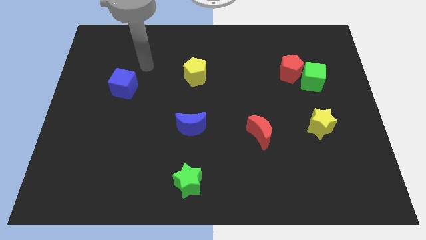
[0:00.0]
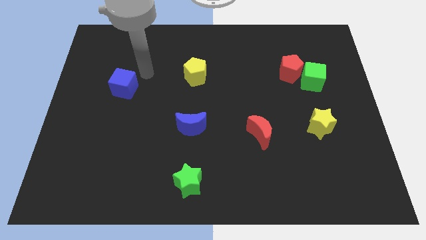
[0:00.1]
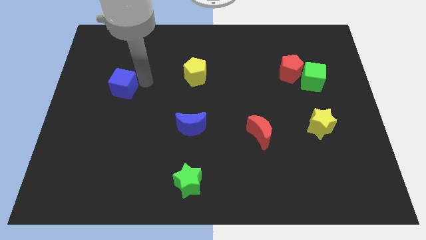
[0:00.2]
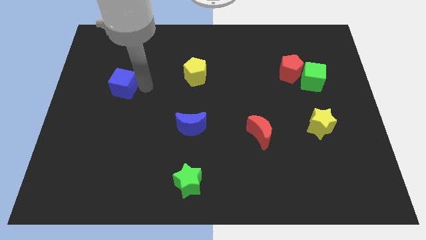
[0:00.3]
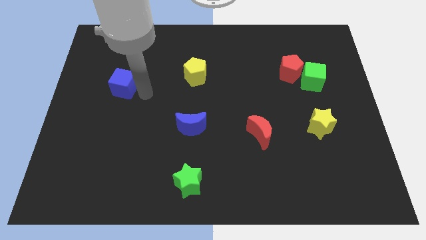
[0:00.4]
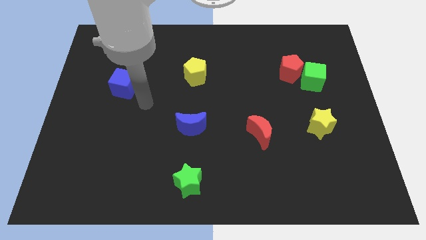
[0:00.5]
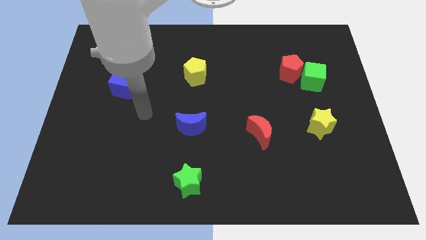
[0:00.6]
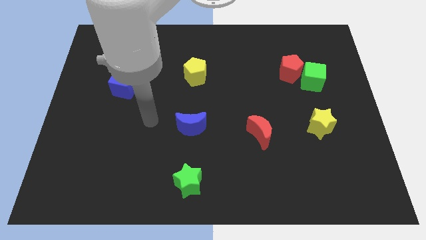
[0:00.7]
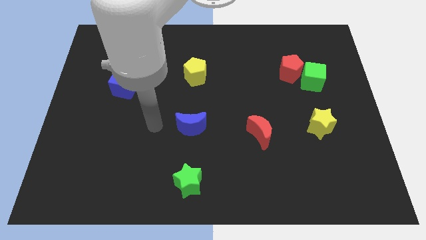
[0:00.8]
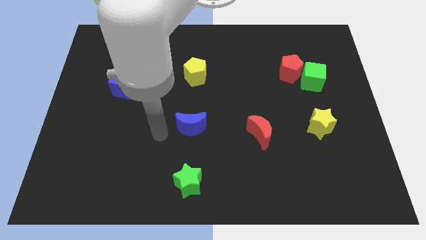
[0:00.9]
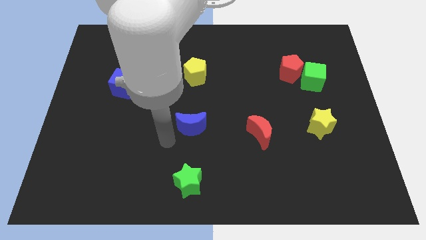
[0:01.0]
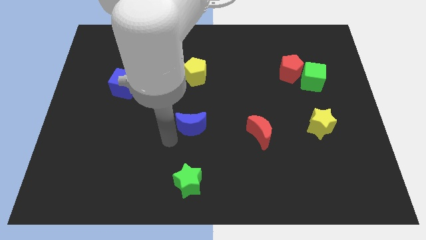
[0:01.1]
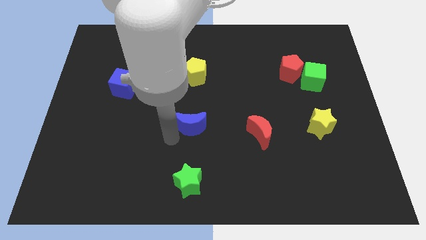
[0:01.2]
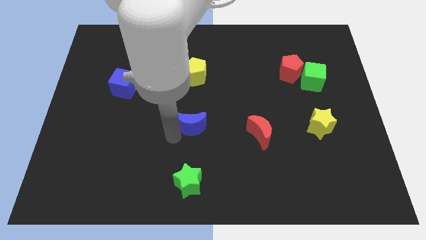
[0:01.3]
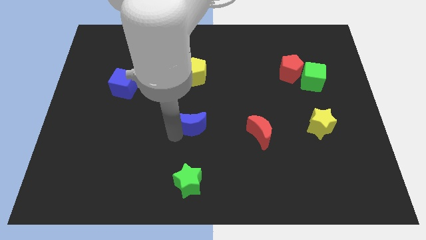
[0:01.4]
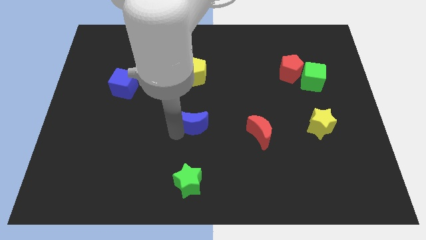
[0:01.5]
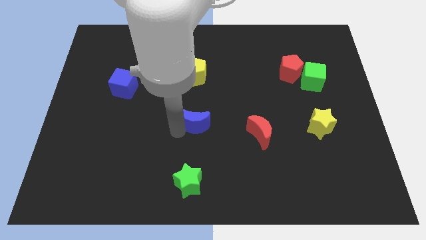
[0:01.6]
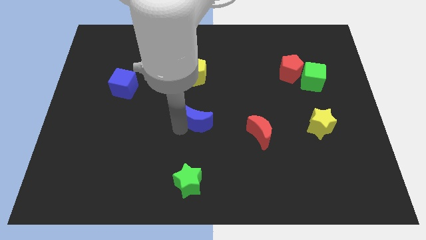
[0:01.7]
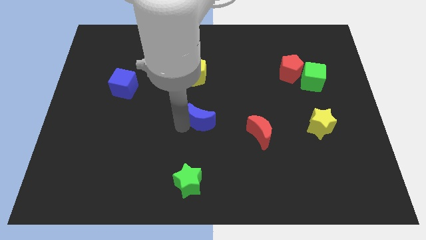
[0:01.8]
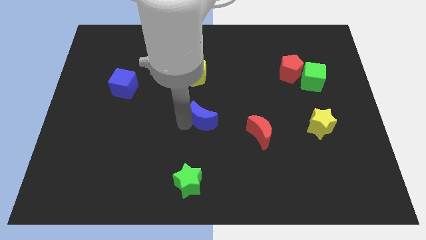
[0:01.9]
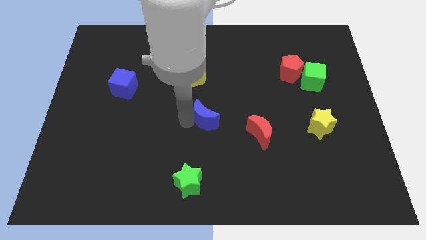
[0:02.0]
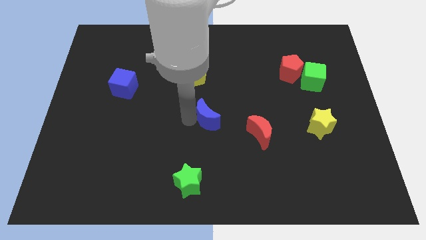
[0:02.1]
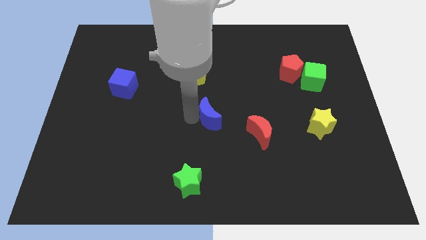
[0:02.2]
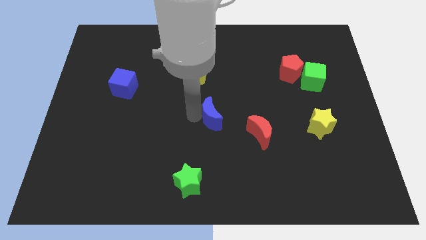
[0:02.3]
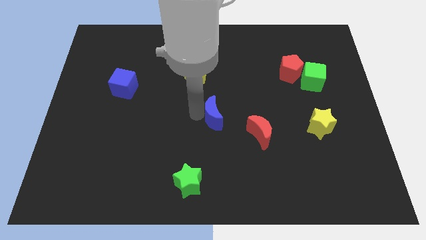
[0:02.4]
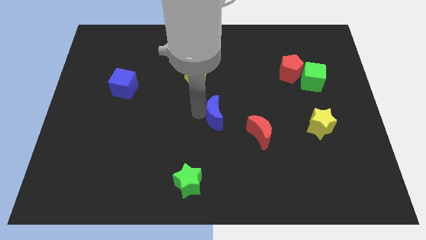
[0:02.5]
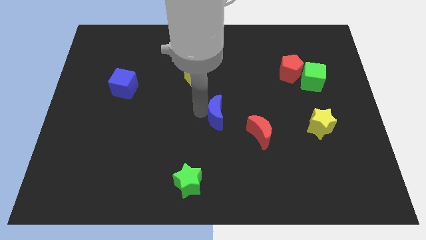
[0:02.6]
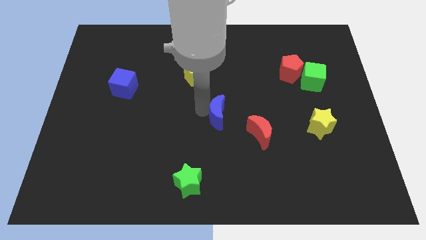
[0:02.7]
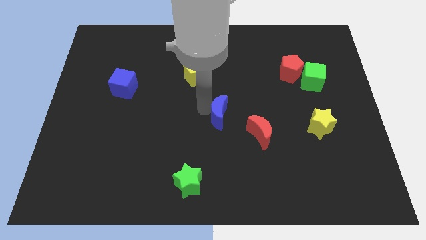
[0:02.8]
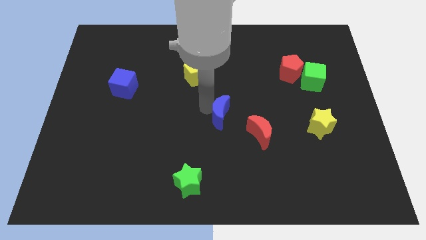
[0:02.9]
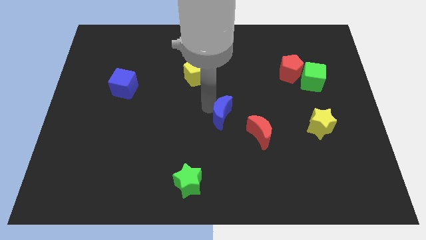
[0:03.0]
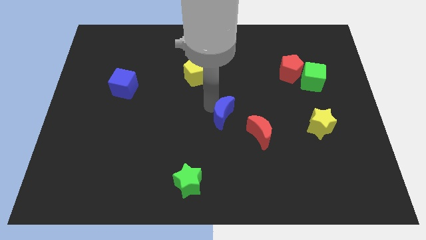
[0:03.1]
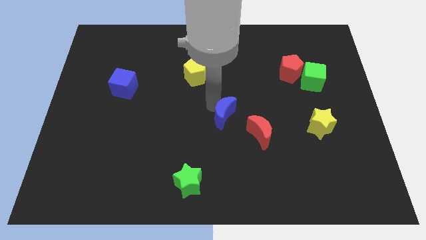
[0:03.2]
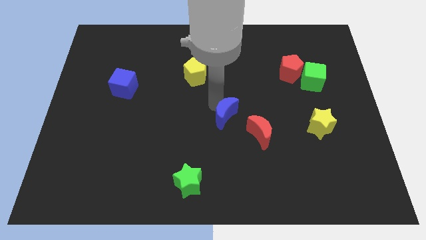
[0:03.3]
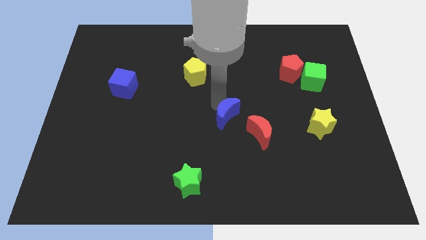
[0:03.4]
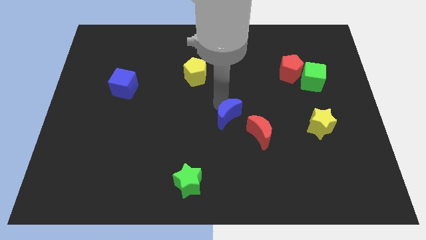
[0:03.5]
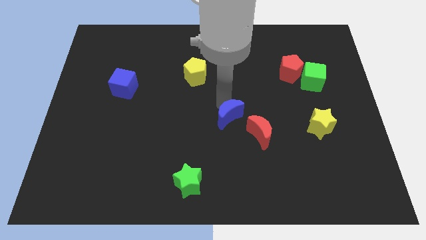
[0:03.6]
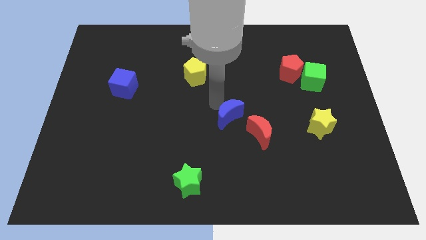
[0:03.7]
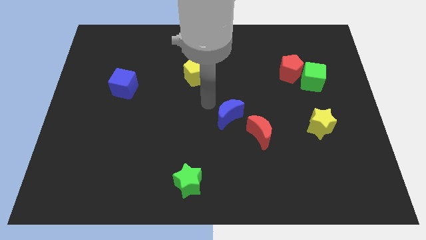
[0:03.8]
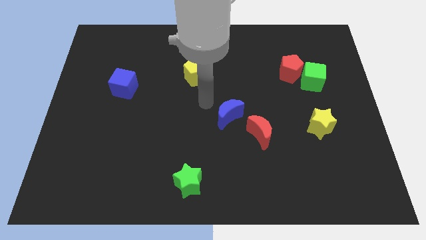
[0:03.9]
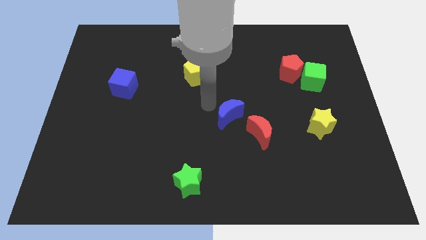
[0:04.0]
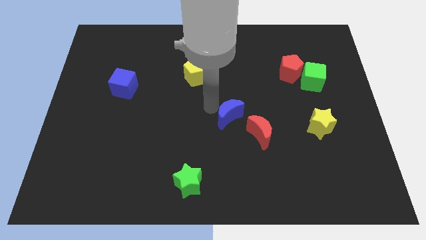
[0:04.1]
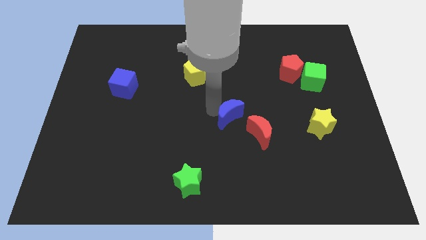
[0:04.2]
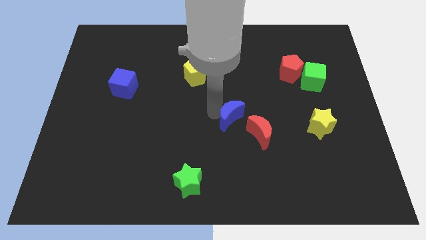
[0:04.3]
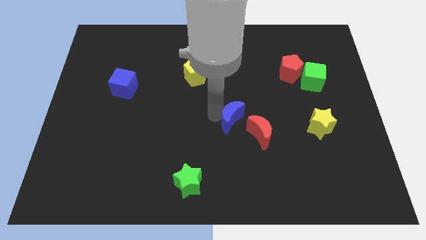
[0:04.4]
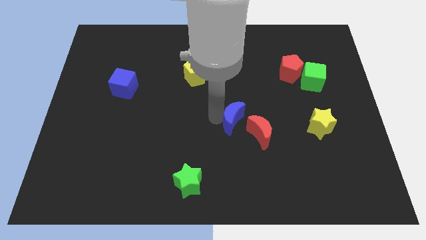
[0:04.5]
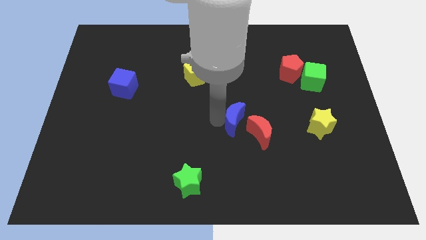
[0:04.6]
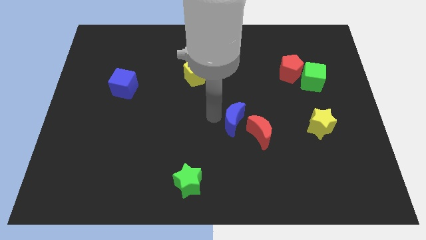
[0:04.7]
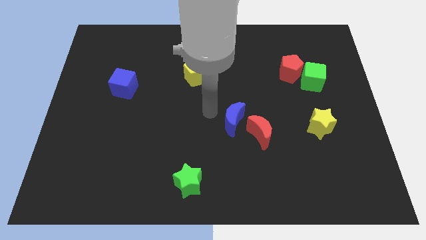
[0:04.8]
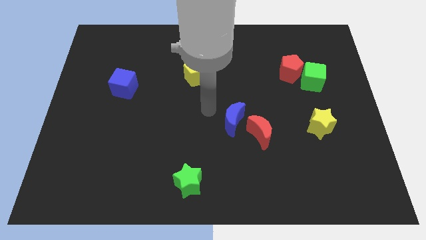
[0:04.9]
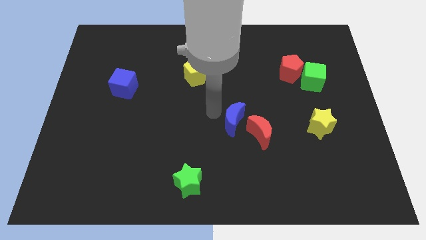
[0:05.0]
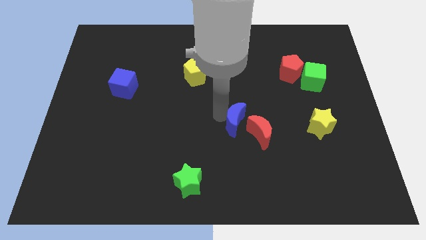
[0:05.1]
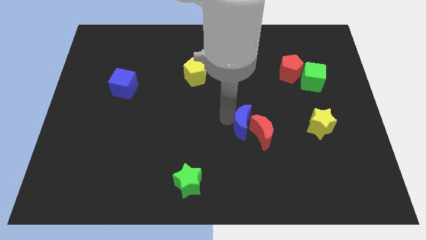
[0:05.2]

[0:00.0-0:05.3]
put the blue moon to the red moon

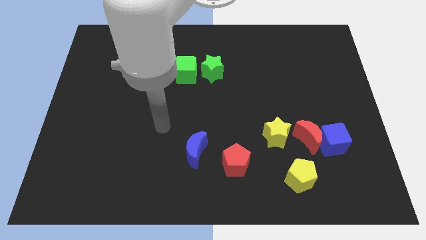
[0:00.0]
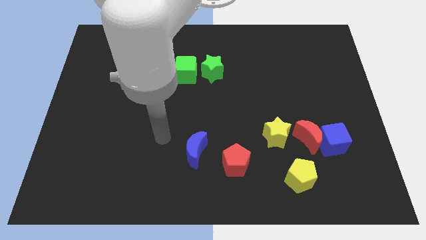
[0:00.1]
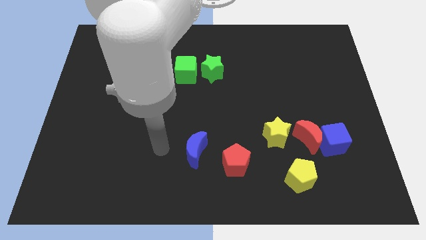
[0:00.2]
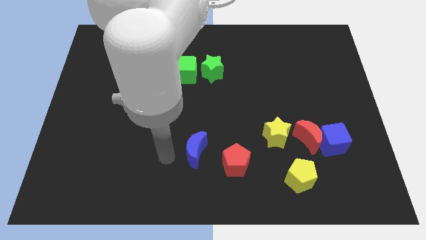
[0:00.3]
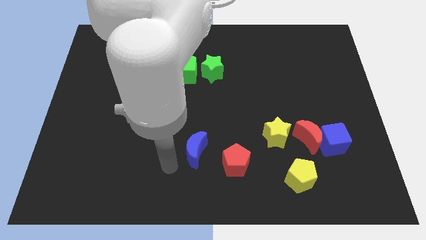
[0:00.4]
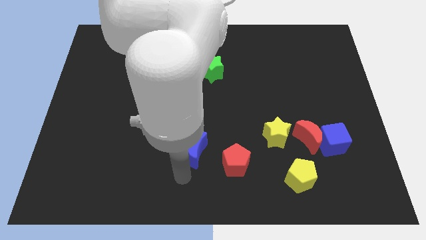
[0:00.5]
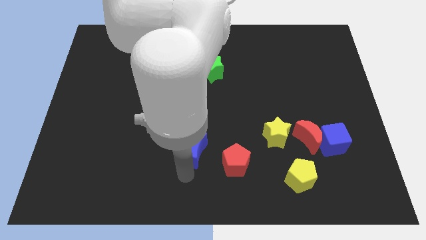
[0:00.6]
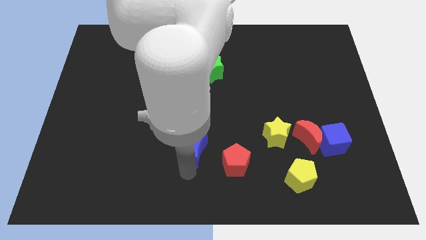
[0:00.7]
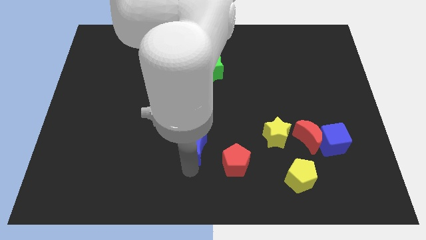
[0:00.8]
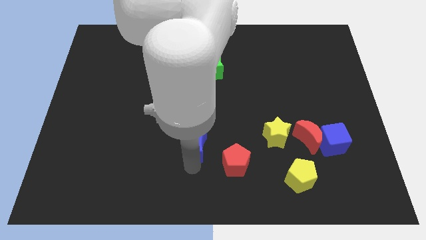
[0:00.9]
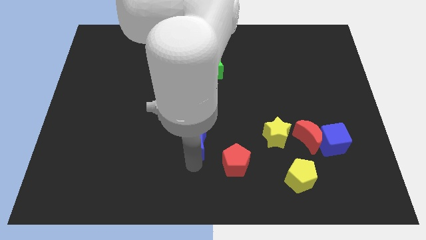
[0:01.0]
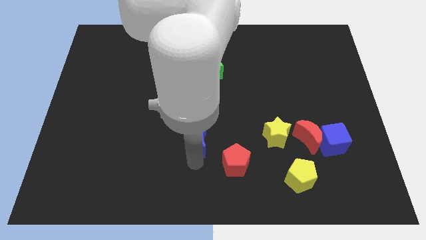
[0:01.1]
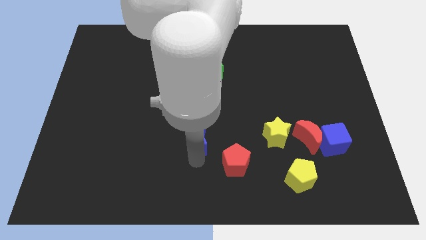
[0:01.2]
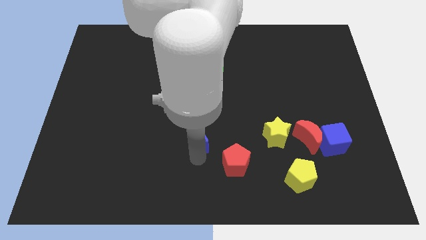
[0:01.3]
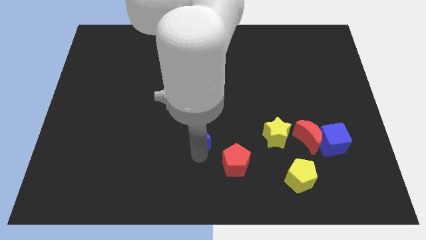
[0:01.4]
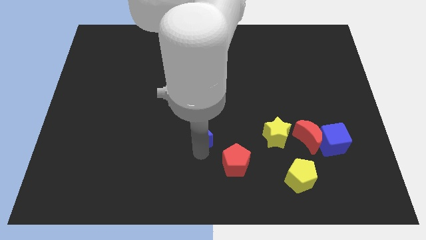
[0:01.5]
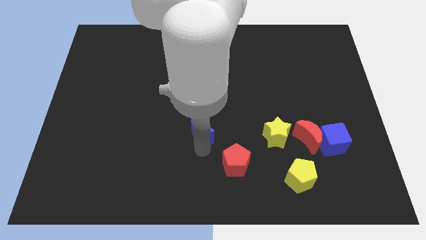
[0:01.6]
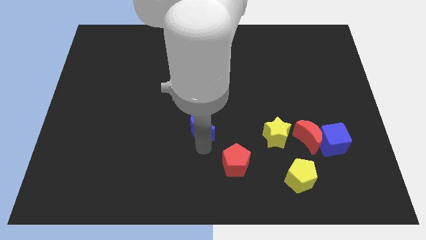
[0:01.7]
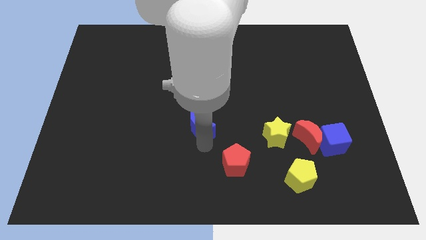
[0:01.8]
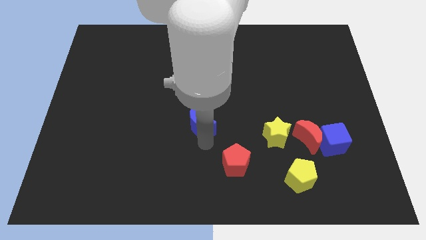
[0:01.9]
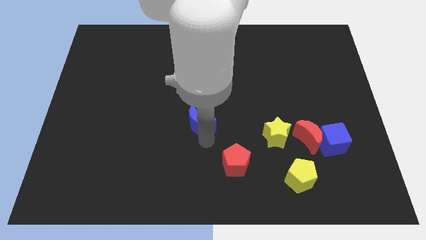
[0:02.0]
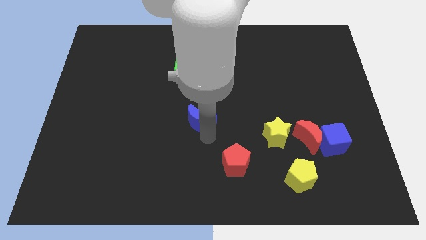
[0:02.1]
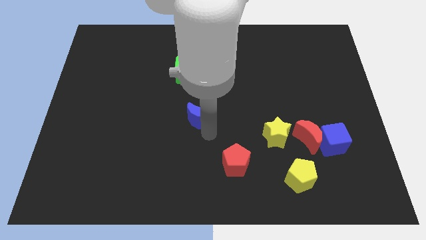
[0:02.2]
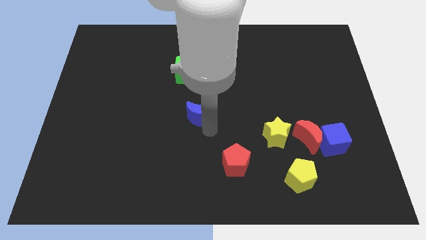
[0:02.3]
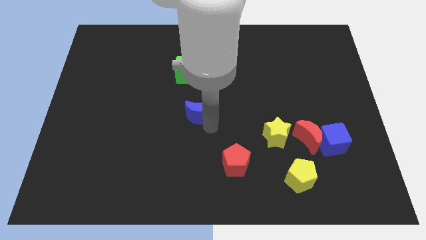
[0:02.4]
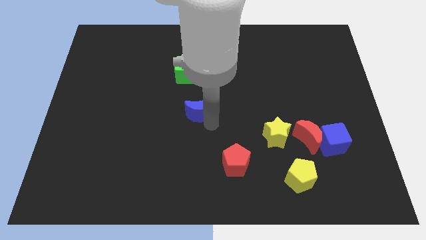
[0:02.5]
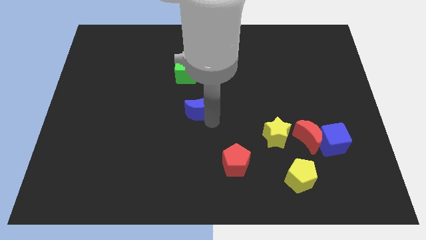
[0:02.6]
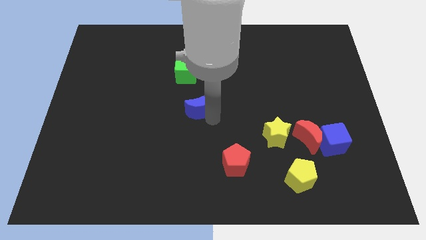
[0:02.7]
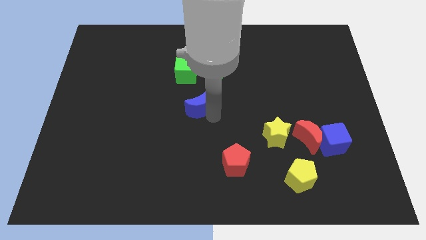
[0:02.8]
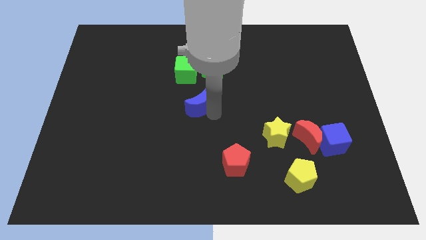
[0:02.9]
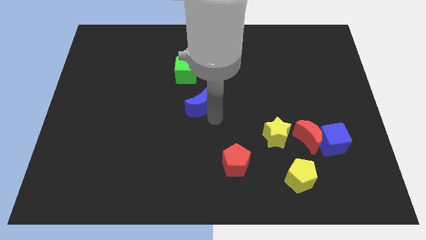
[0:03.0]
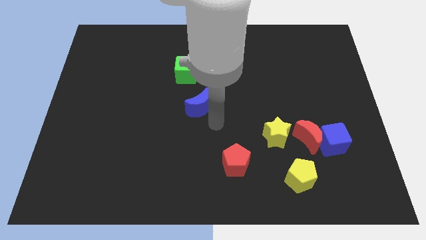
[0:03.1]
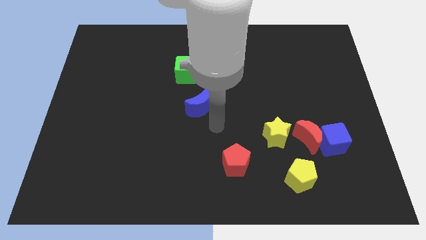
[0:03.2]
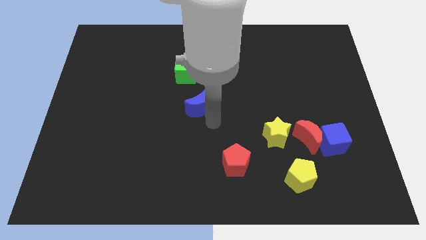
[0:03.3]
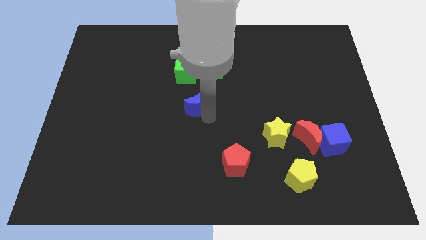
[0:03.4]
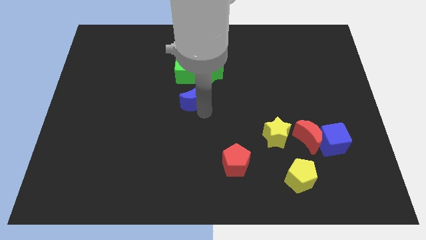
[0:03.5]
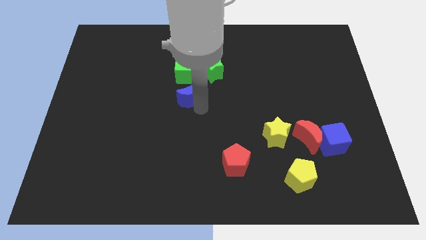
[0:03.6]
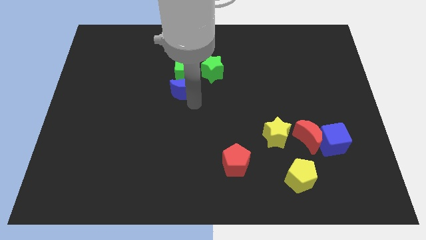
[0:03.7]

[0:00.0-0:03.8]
push the blue moon next to the green cube
